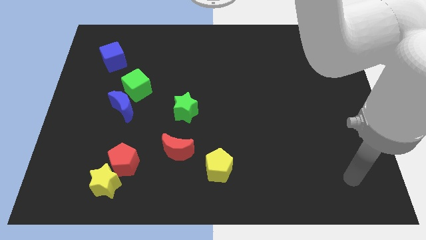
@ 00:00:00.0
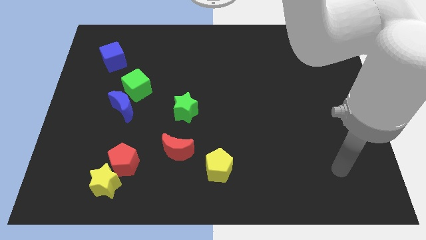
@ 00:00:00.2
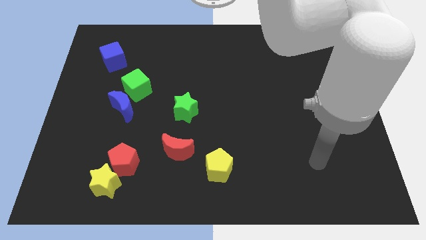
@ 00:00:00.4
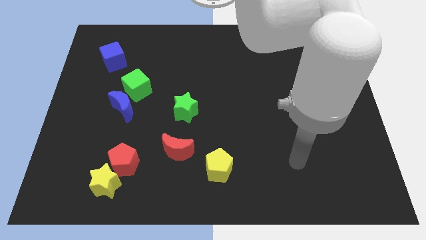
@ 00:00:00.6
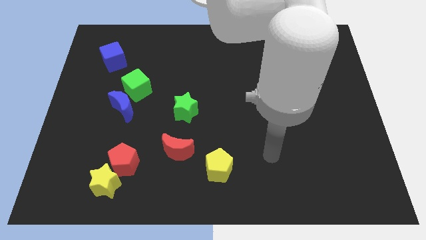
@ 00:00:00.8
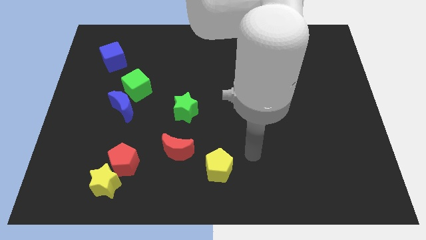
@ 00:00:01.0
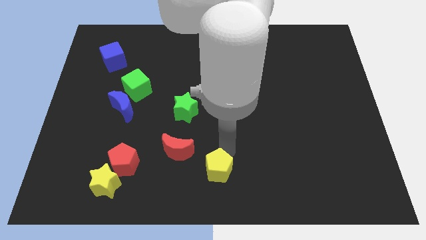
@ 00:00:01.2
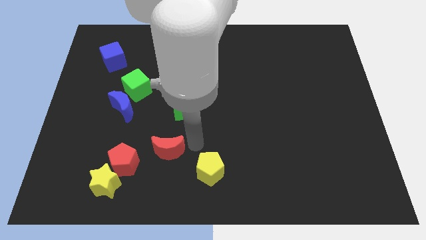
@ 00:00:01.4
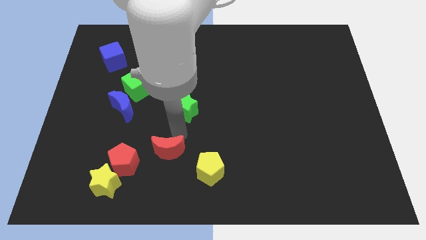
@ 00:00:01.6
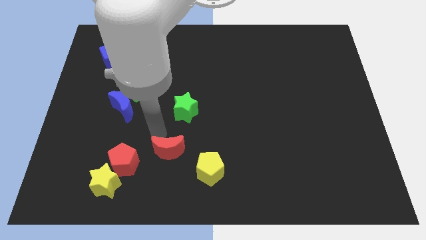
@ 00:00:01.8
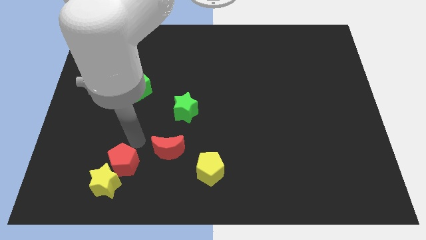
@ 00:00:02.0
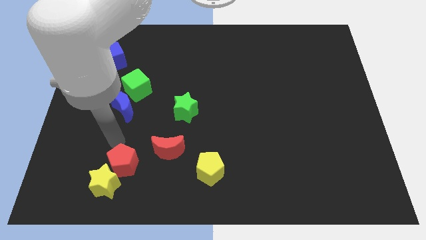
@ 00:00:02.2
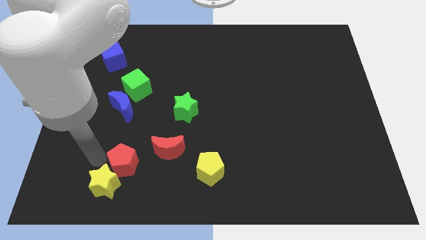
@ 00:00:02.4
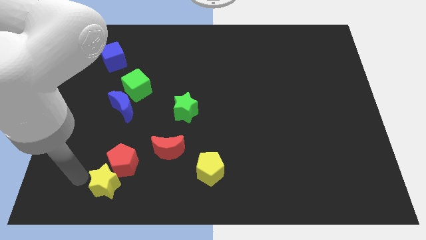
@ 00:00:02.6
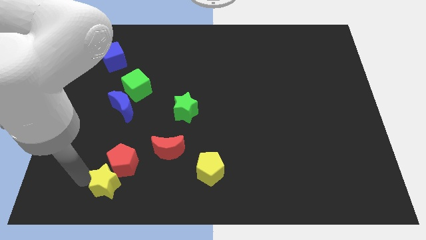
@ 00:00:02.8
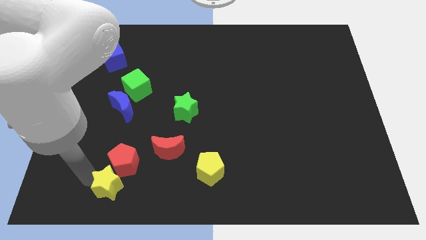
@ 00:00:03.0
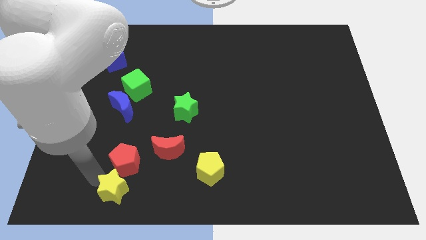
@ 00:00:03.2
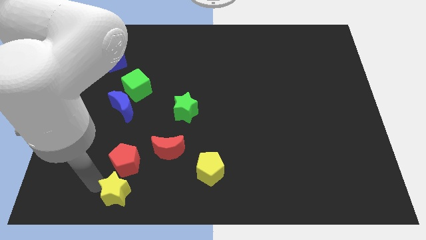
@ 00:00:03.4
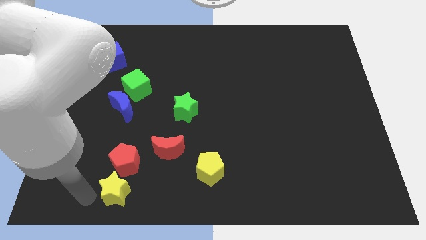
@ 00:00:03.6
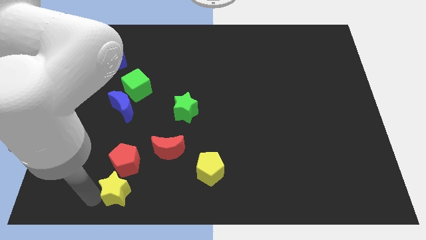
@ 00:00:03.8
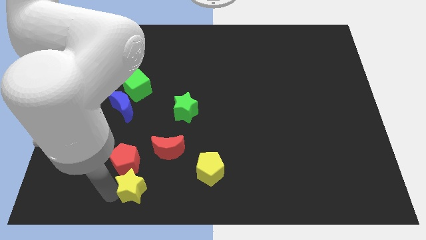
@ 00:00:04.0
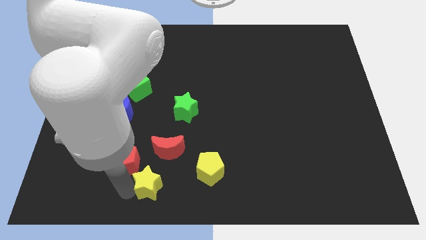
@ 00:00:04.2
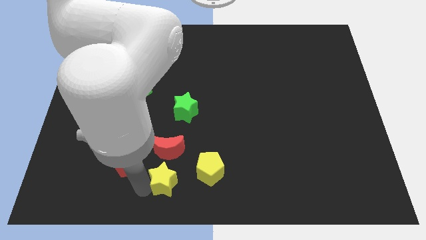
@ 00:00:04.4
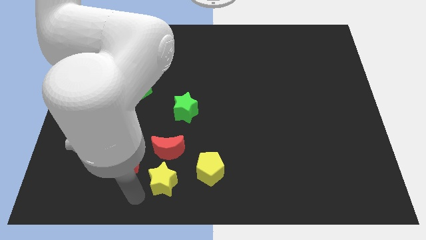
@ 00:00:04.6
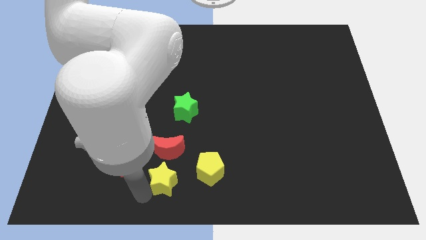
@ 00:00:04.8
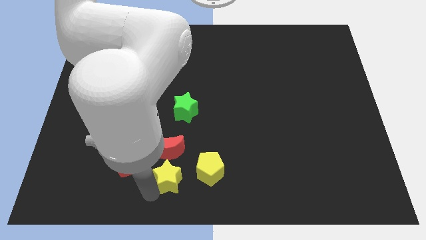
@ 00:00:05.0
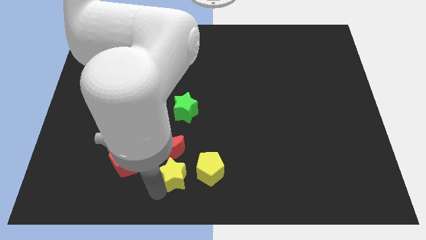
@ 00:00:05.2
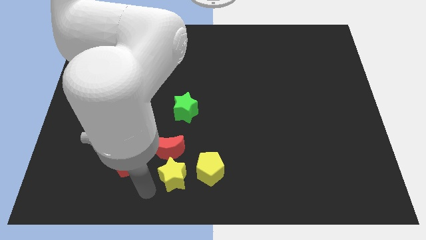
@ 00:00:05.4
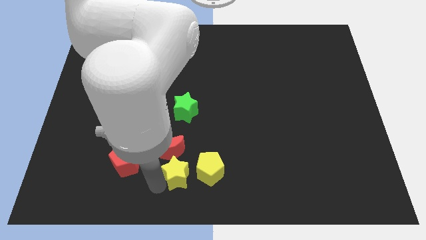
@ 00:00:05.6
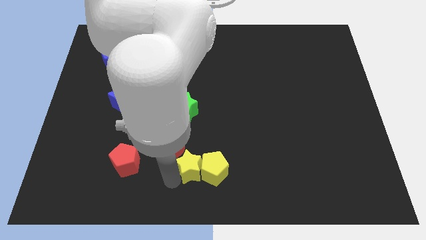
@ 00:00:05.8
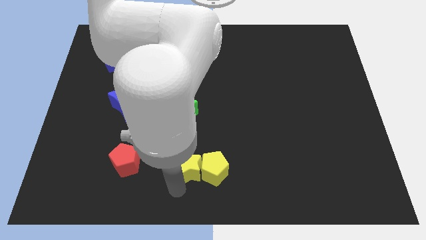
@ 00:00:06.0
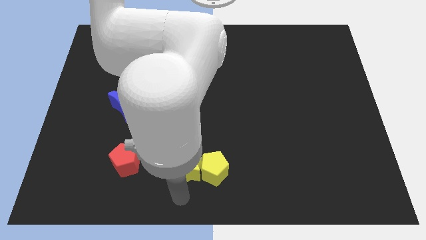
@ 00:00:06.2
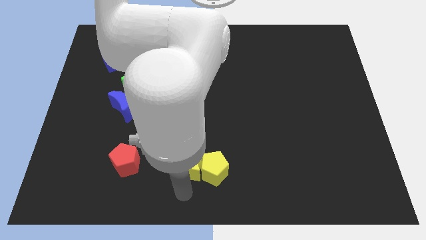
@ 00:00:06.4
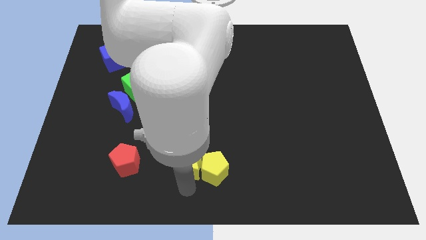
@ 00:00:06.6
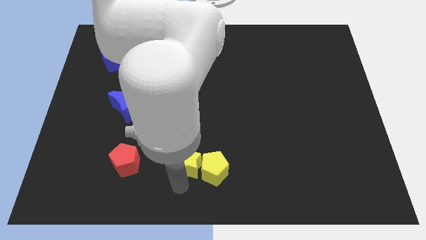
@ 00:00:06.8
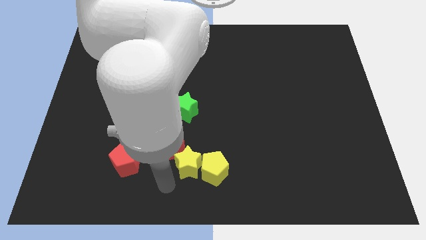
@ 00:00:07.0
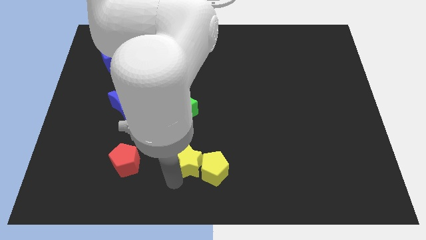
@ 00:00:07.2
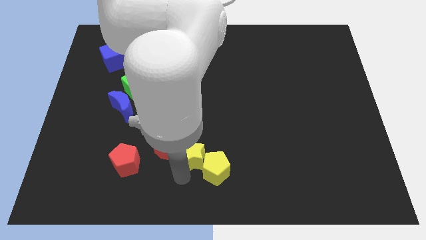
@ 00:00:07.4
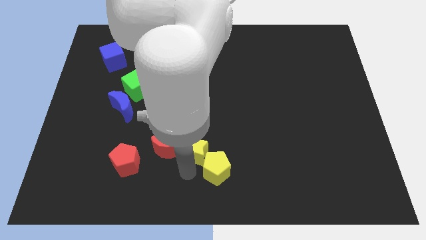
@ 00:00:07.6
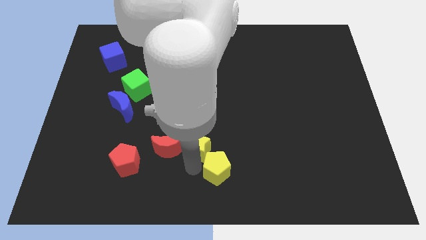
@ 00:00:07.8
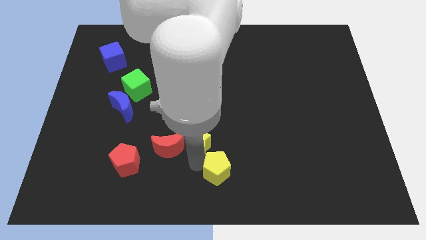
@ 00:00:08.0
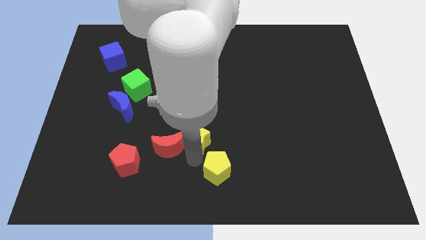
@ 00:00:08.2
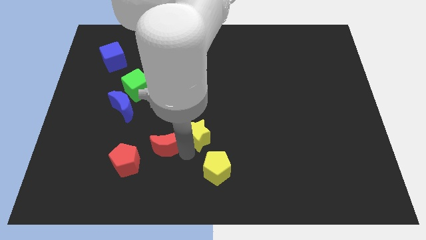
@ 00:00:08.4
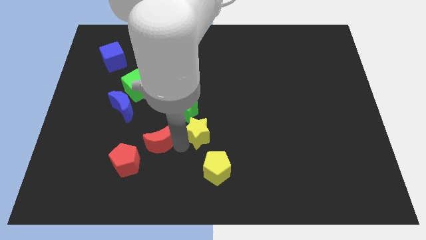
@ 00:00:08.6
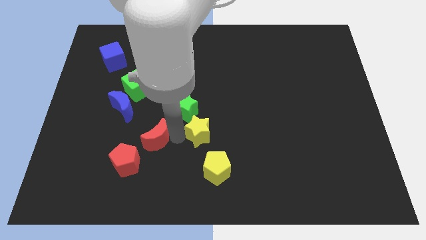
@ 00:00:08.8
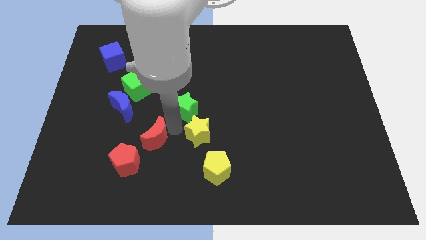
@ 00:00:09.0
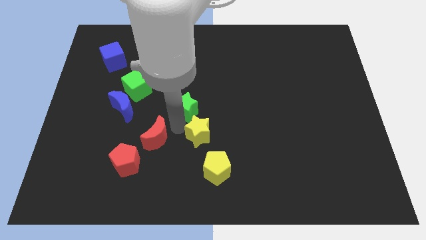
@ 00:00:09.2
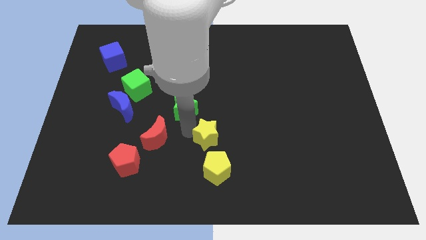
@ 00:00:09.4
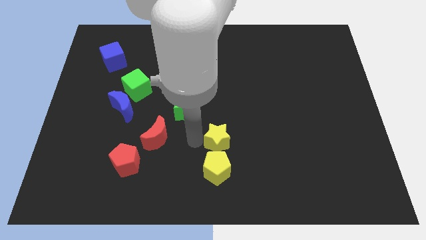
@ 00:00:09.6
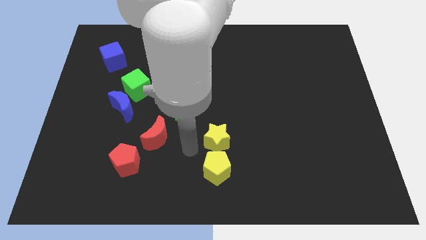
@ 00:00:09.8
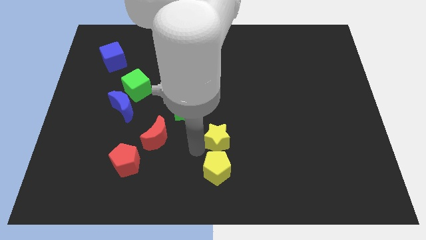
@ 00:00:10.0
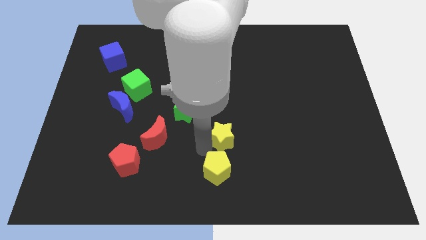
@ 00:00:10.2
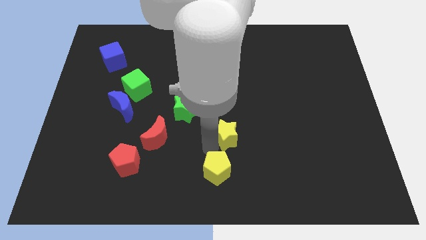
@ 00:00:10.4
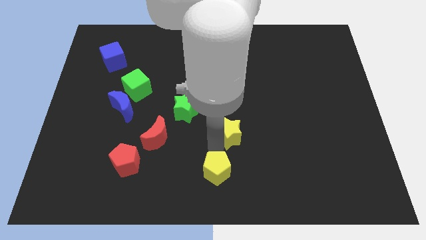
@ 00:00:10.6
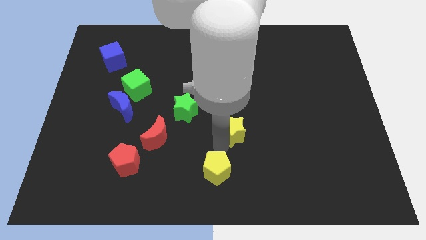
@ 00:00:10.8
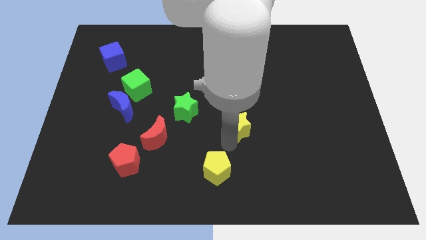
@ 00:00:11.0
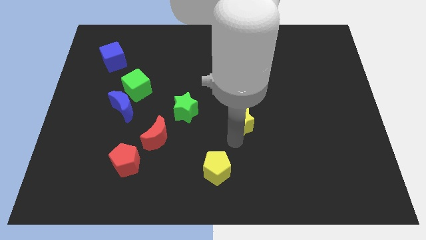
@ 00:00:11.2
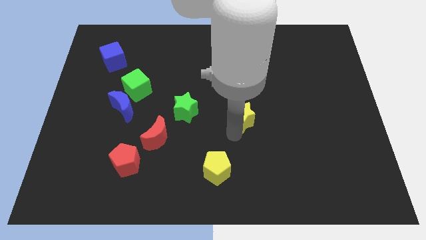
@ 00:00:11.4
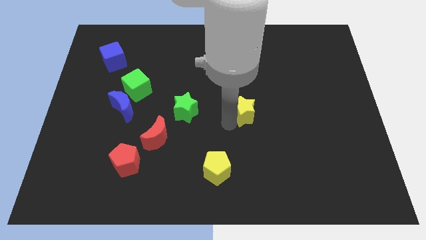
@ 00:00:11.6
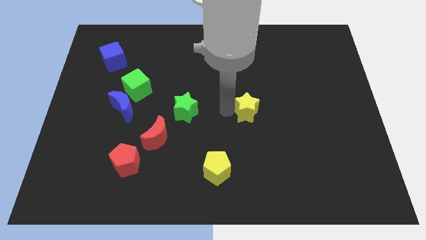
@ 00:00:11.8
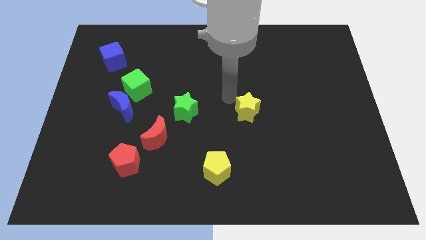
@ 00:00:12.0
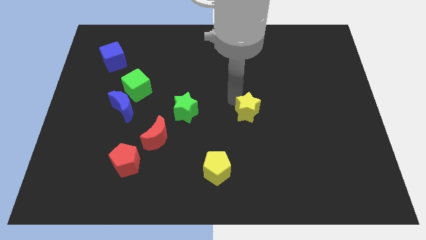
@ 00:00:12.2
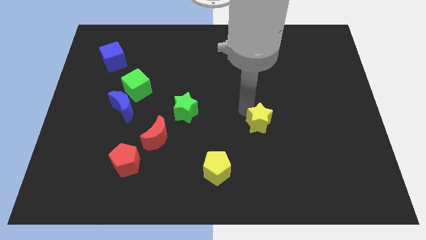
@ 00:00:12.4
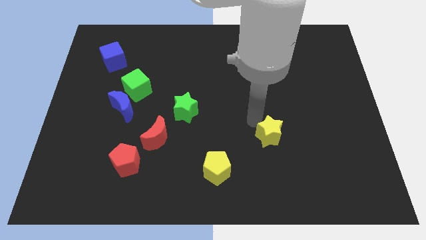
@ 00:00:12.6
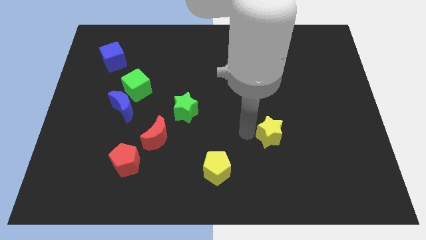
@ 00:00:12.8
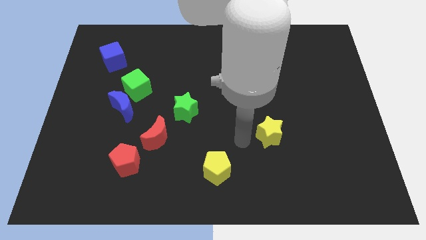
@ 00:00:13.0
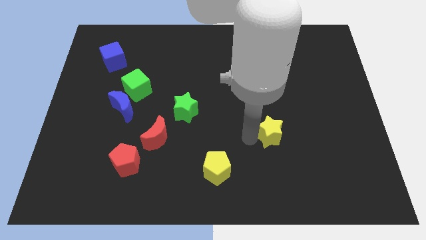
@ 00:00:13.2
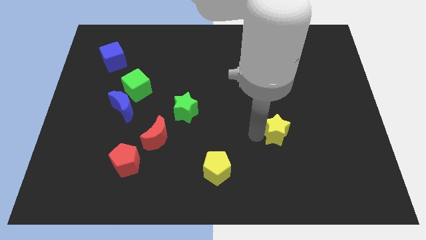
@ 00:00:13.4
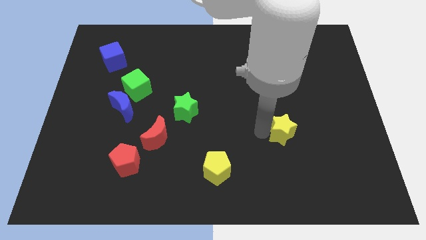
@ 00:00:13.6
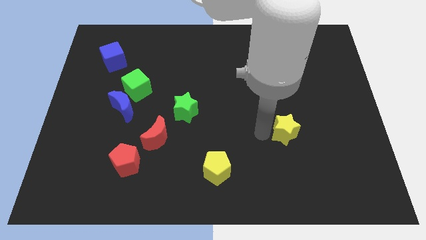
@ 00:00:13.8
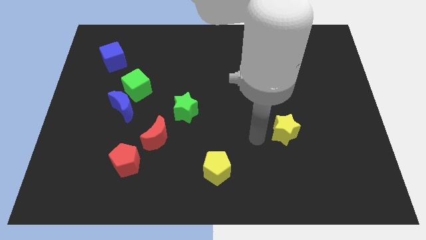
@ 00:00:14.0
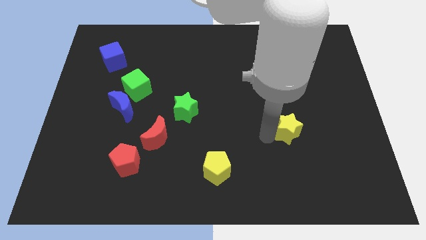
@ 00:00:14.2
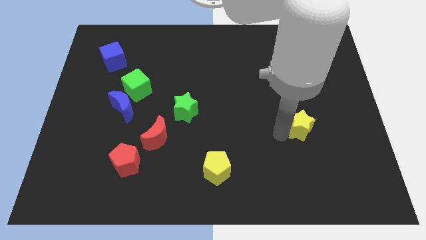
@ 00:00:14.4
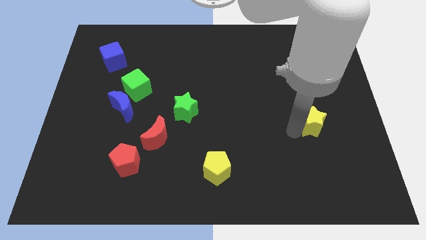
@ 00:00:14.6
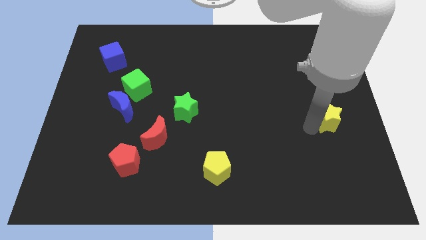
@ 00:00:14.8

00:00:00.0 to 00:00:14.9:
move the yellow star to the right side

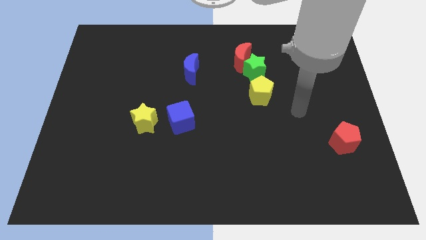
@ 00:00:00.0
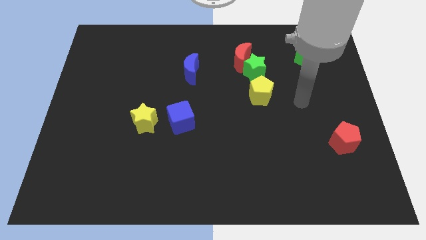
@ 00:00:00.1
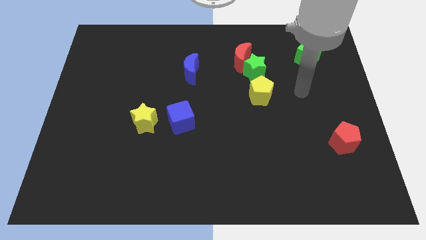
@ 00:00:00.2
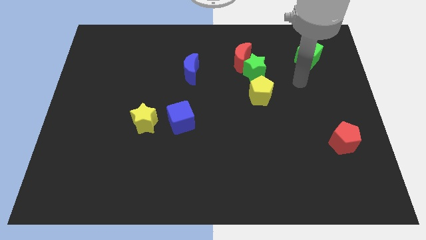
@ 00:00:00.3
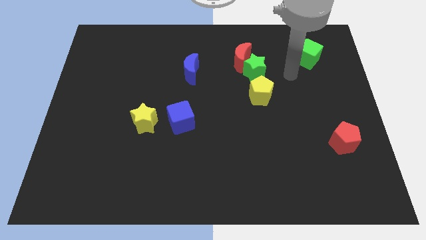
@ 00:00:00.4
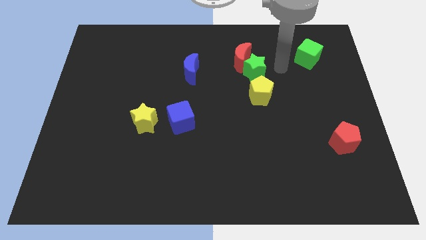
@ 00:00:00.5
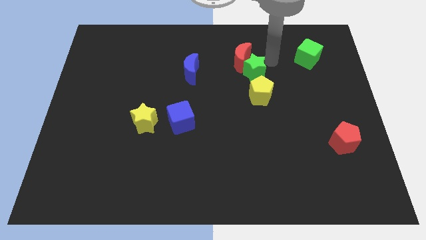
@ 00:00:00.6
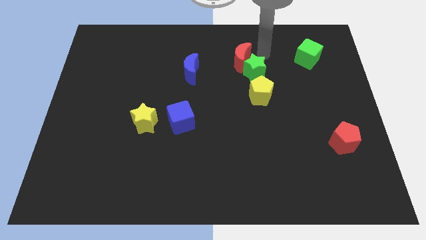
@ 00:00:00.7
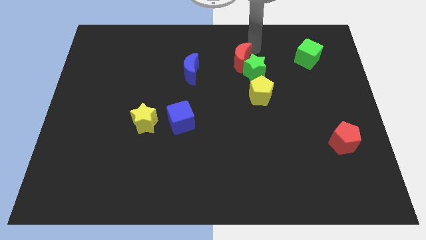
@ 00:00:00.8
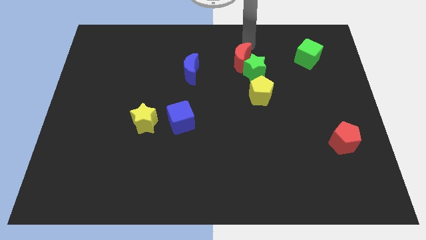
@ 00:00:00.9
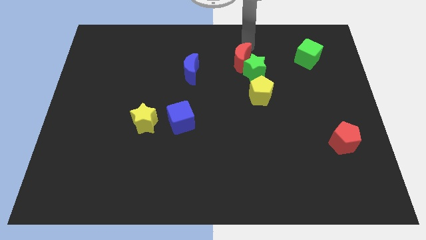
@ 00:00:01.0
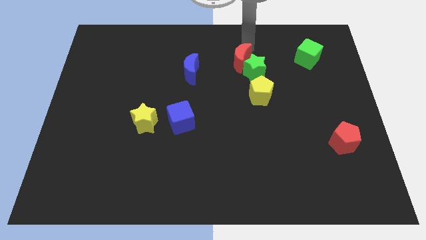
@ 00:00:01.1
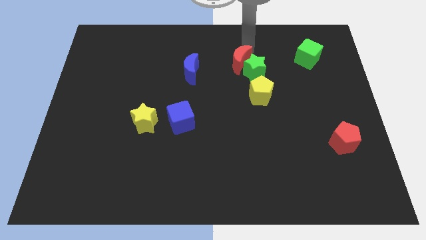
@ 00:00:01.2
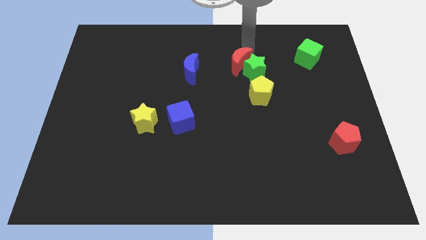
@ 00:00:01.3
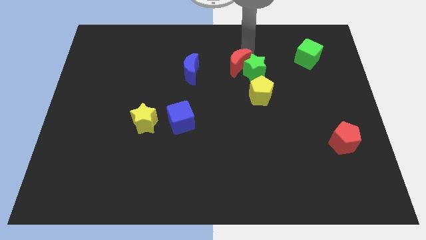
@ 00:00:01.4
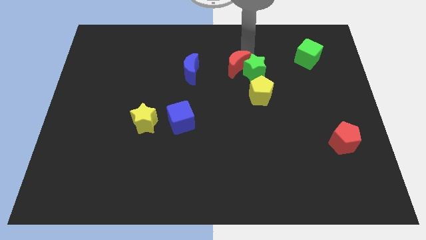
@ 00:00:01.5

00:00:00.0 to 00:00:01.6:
put the red moon to the middle of the board
